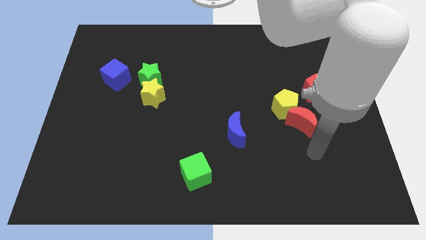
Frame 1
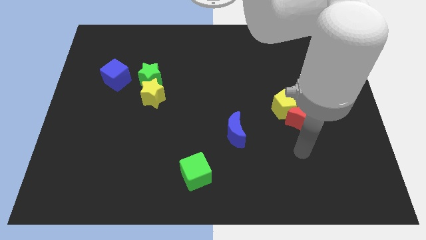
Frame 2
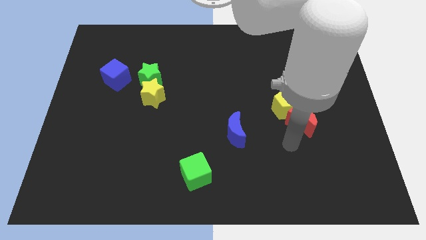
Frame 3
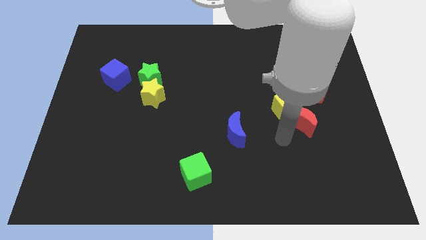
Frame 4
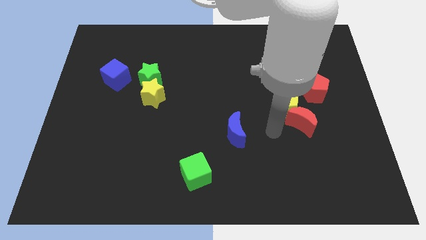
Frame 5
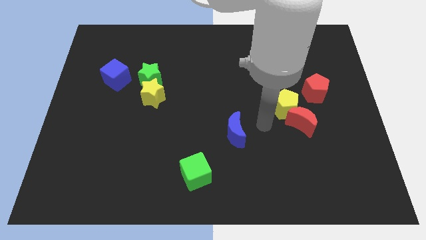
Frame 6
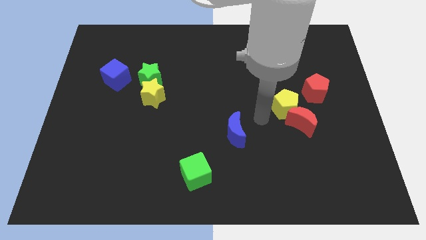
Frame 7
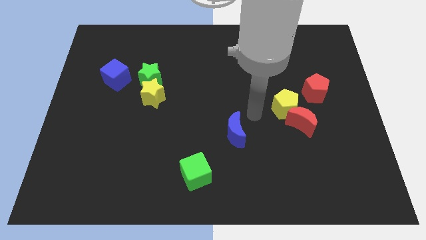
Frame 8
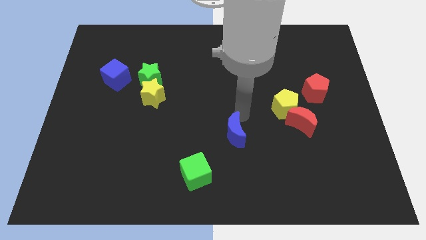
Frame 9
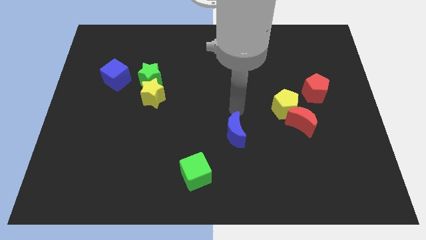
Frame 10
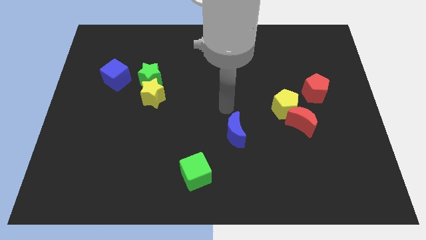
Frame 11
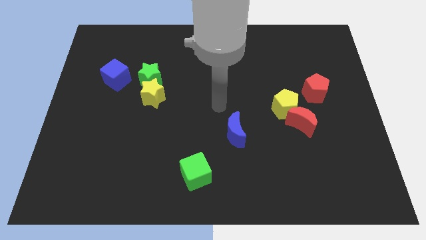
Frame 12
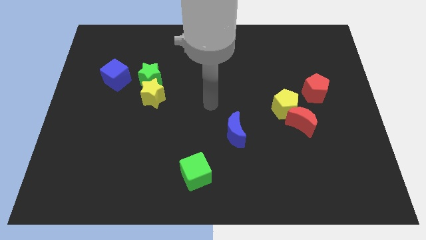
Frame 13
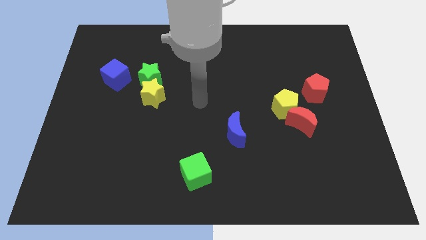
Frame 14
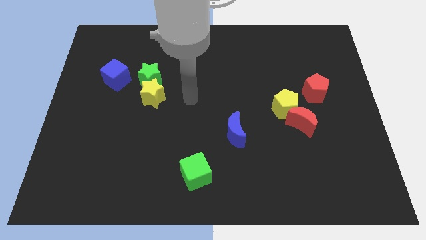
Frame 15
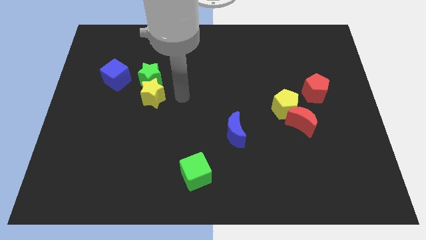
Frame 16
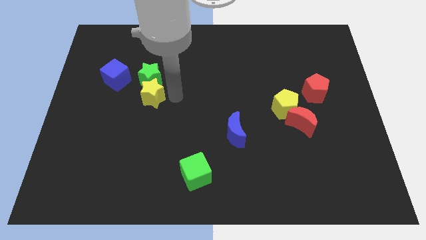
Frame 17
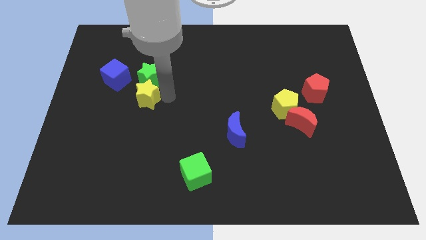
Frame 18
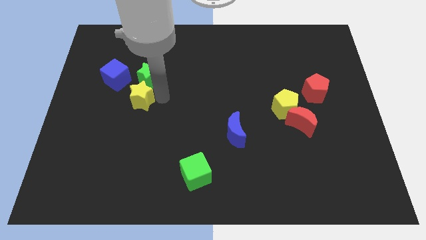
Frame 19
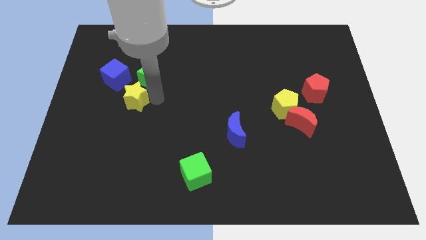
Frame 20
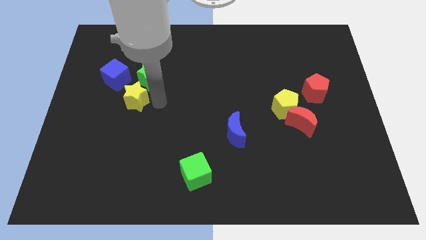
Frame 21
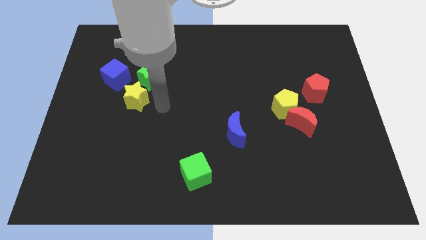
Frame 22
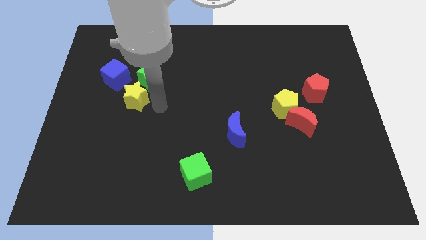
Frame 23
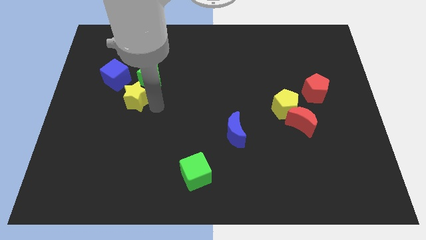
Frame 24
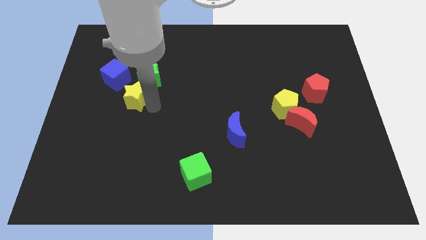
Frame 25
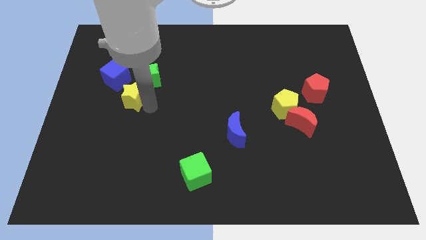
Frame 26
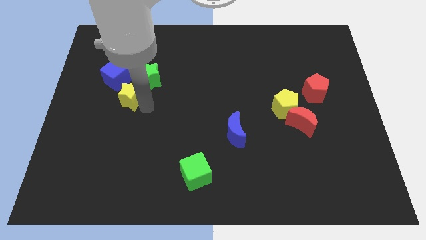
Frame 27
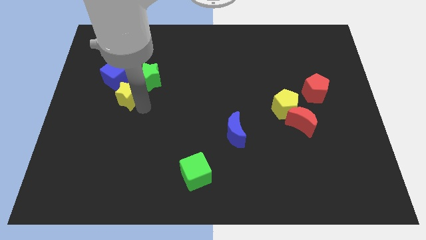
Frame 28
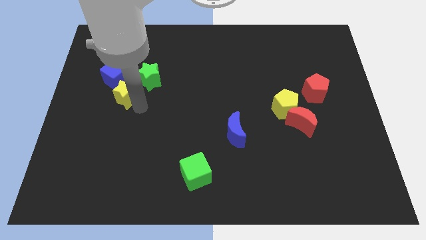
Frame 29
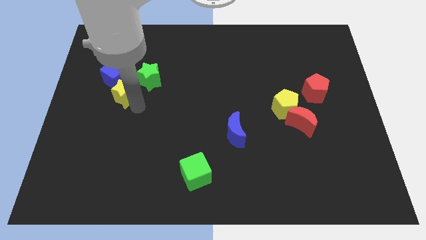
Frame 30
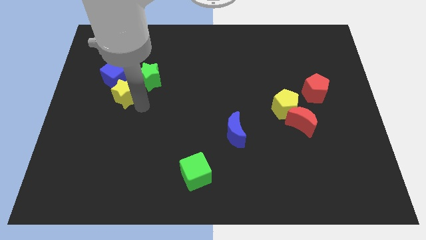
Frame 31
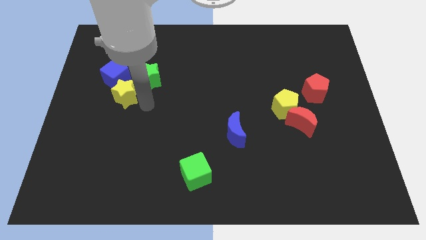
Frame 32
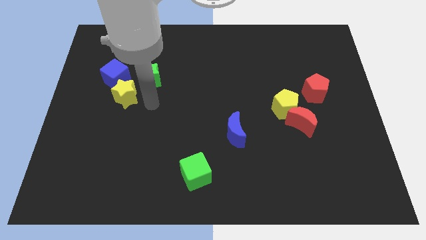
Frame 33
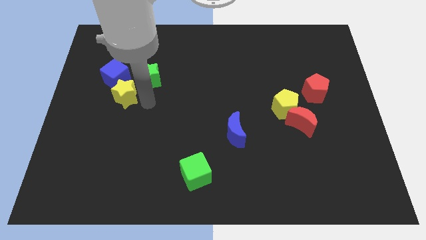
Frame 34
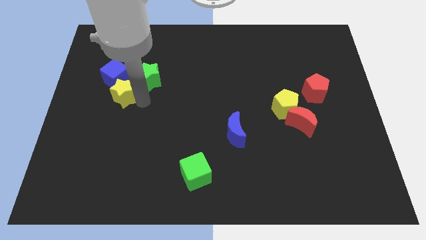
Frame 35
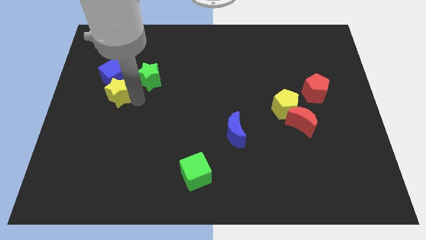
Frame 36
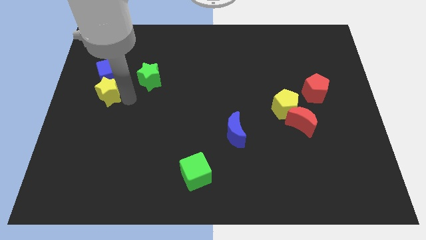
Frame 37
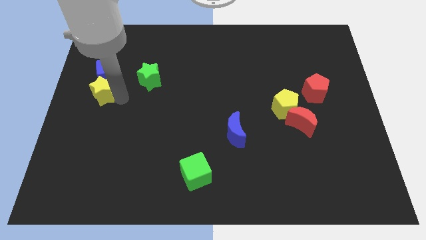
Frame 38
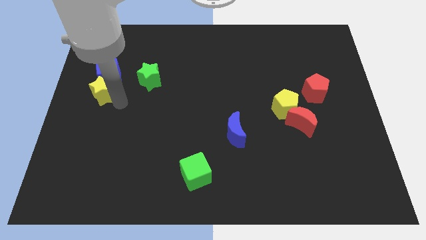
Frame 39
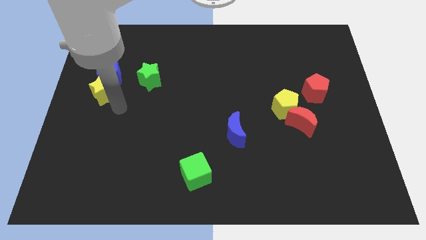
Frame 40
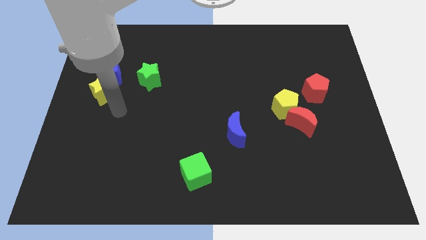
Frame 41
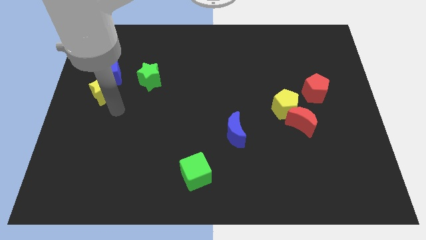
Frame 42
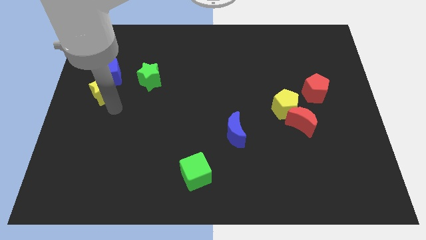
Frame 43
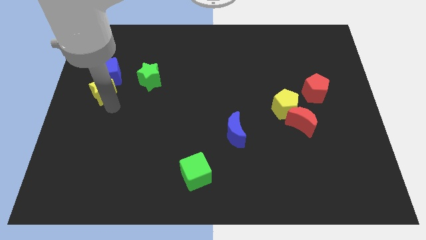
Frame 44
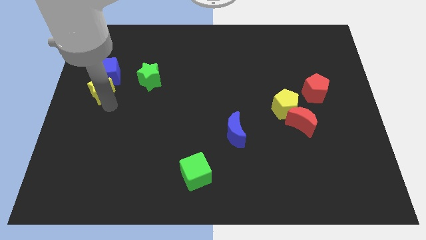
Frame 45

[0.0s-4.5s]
slightly move the yellow star diagonally up and left

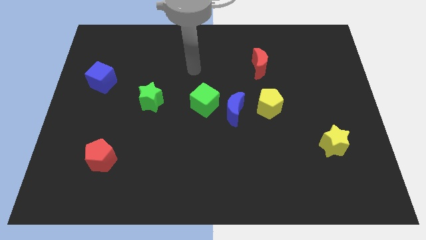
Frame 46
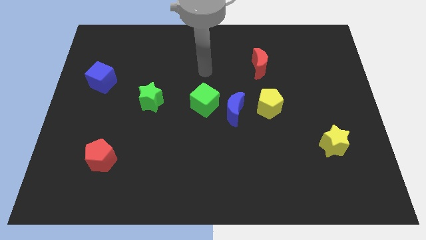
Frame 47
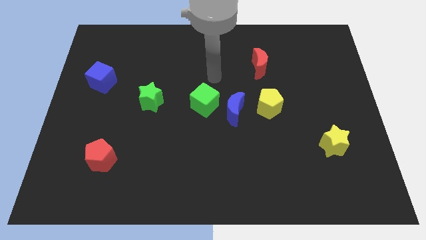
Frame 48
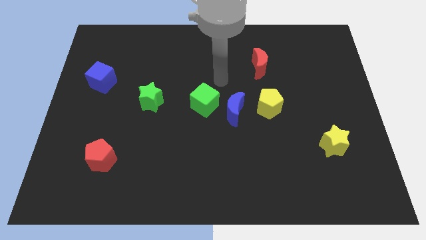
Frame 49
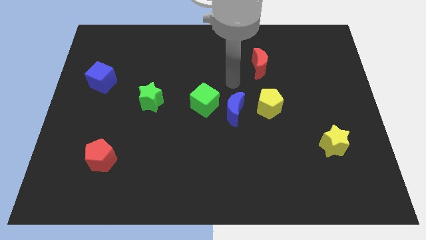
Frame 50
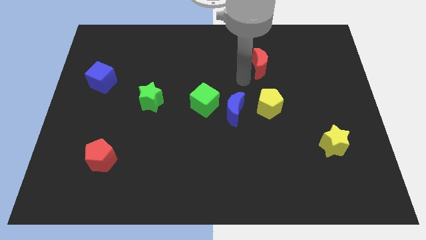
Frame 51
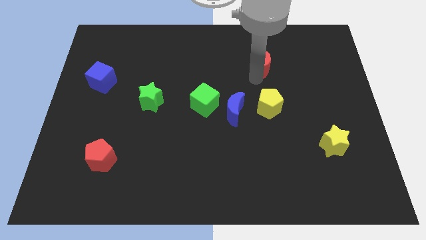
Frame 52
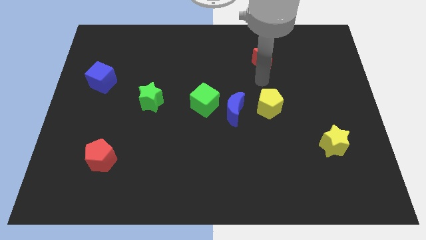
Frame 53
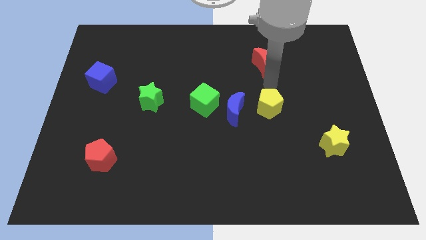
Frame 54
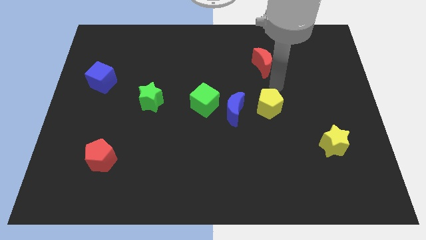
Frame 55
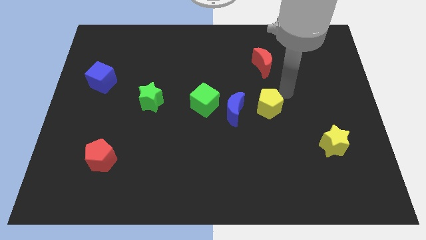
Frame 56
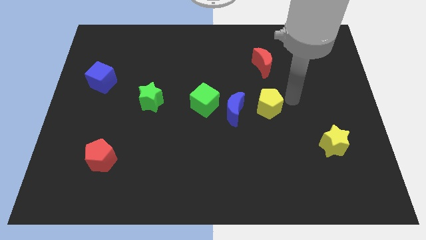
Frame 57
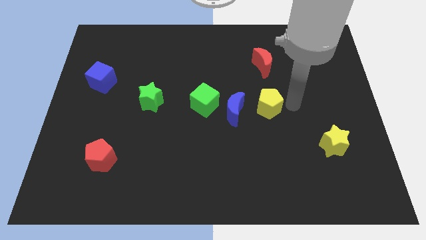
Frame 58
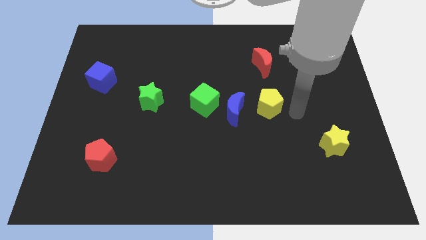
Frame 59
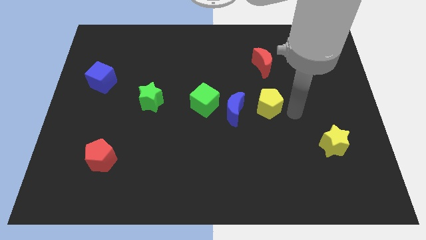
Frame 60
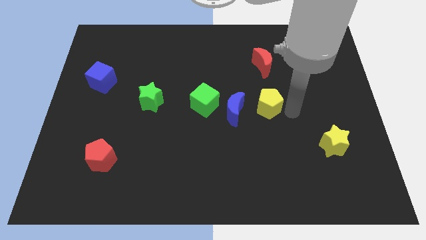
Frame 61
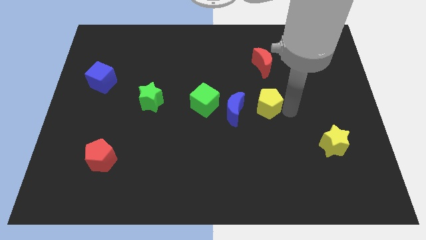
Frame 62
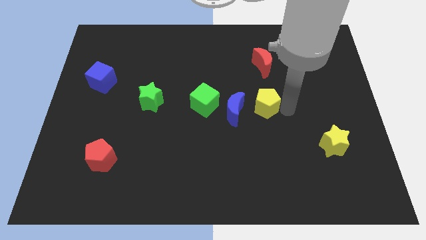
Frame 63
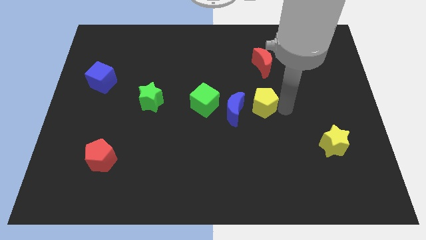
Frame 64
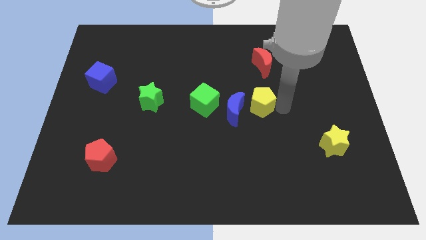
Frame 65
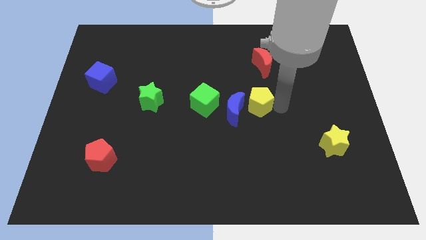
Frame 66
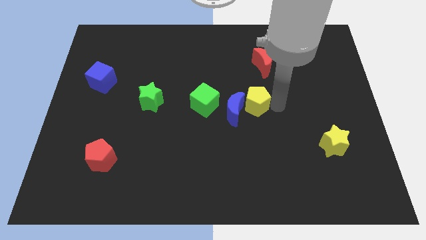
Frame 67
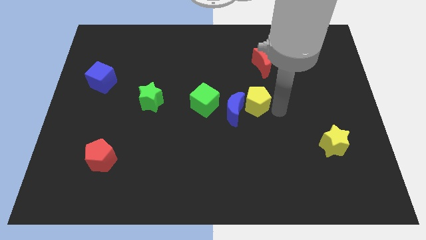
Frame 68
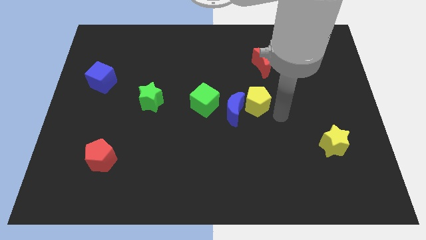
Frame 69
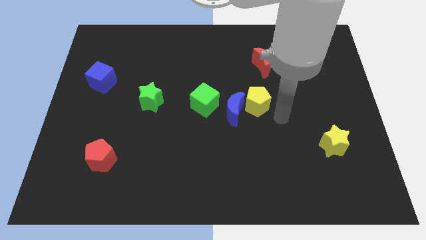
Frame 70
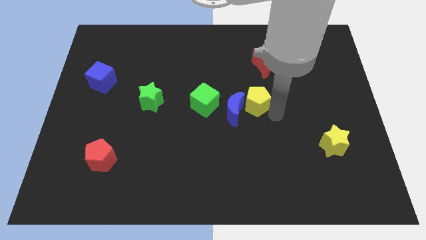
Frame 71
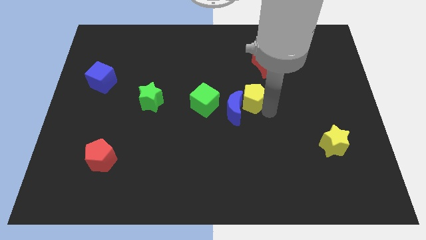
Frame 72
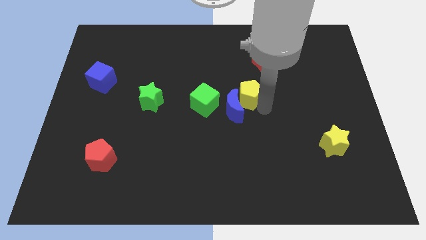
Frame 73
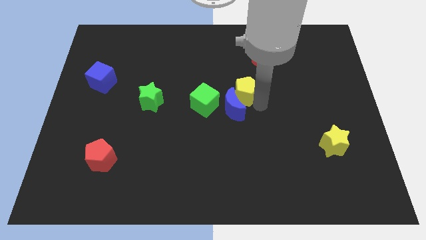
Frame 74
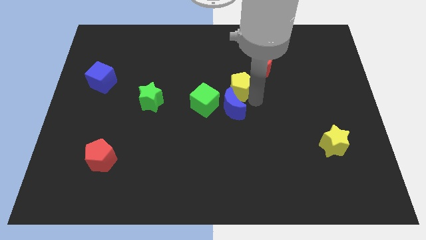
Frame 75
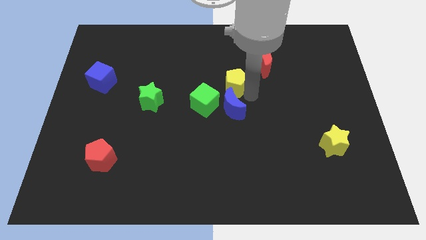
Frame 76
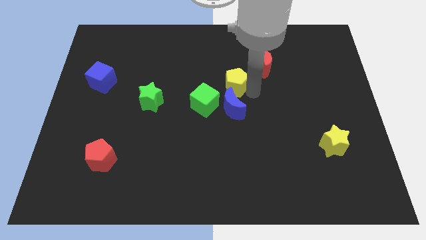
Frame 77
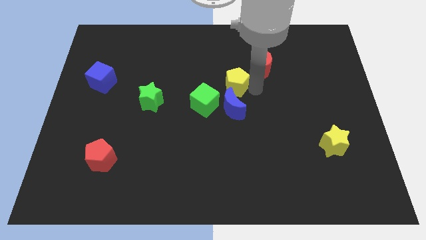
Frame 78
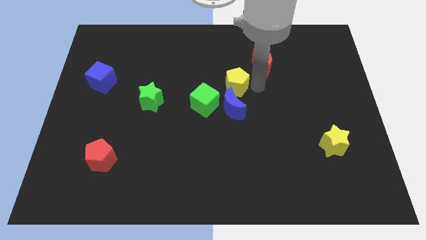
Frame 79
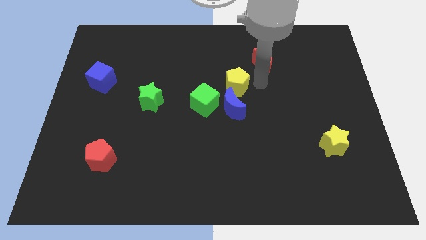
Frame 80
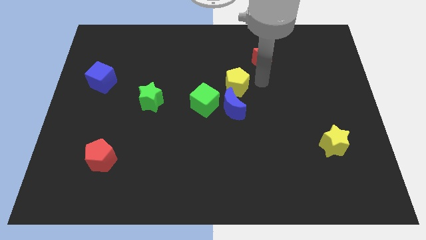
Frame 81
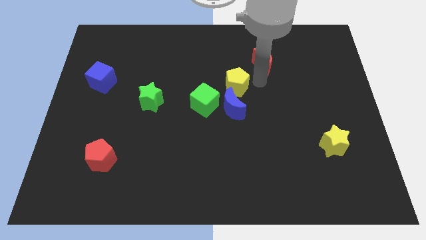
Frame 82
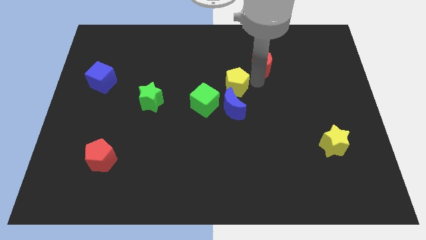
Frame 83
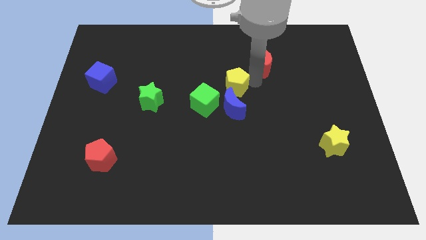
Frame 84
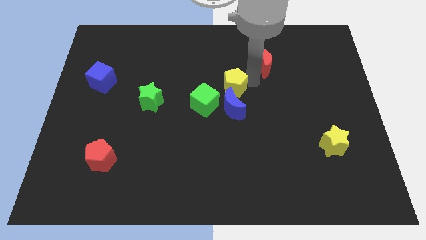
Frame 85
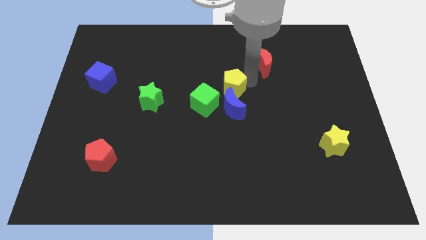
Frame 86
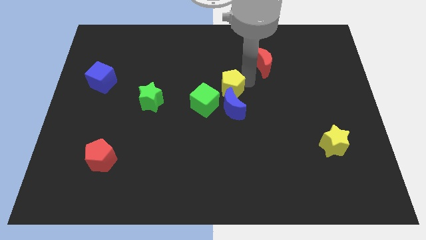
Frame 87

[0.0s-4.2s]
push the yellow pentagon a little bit to the left
